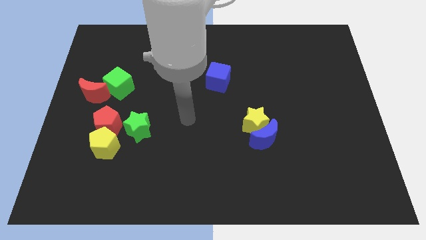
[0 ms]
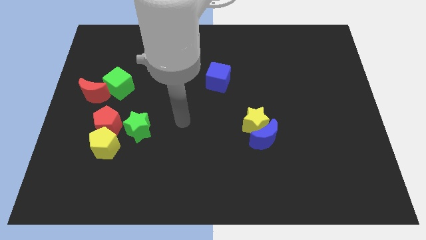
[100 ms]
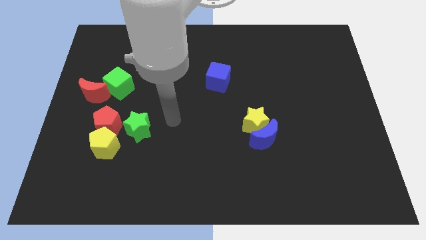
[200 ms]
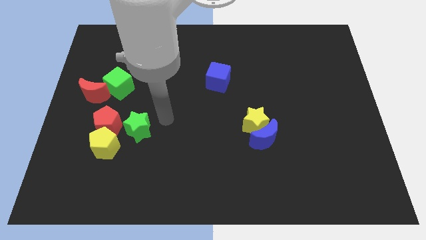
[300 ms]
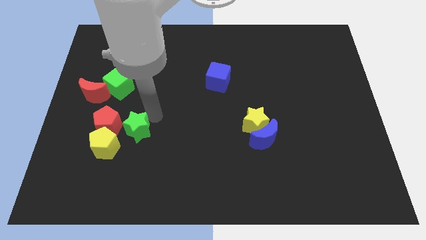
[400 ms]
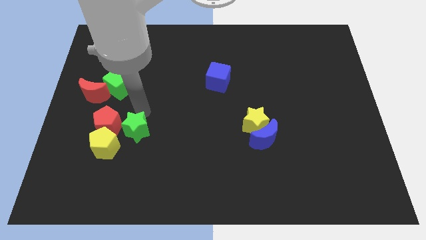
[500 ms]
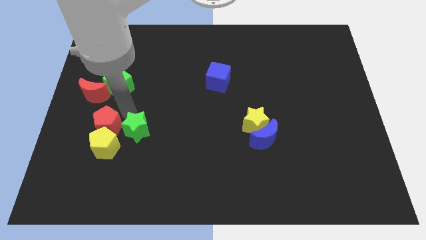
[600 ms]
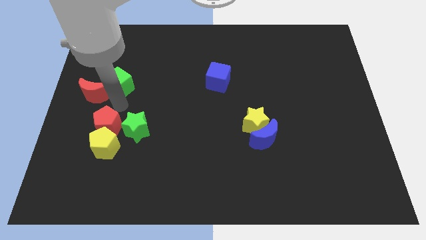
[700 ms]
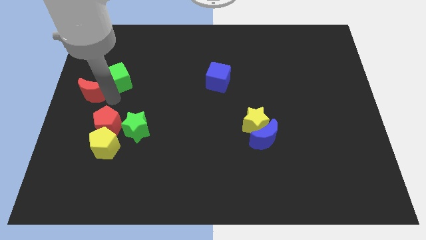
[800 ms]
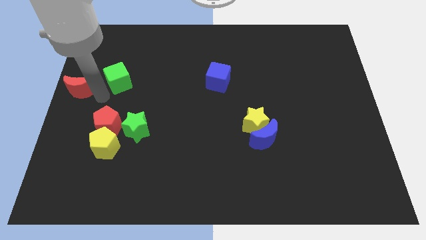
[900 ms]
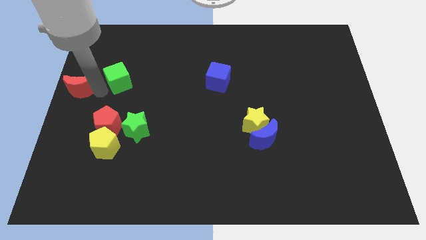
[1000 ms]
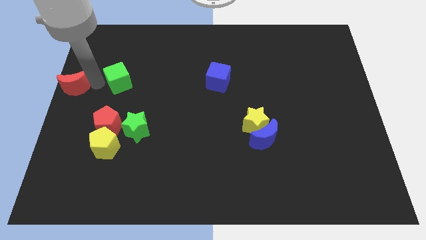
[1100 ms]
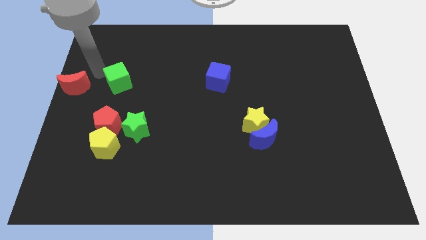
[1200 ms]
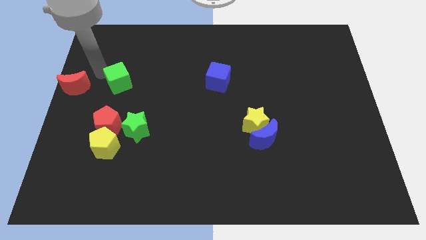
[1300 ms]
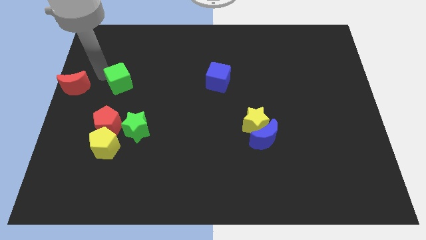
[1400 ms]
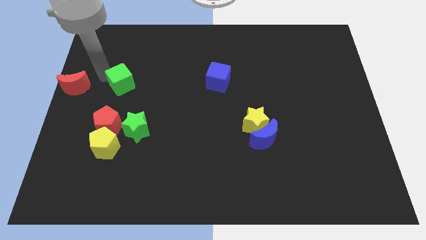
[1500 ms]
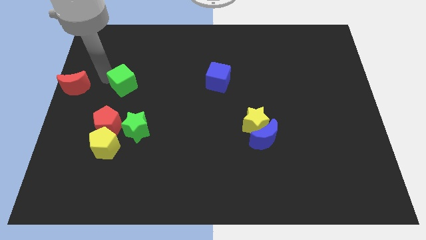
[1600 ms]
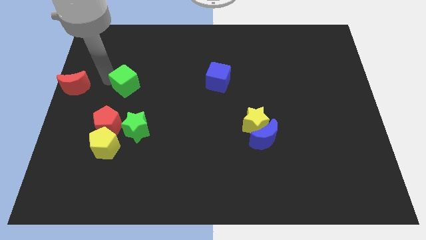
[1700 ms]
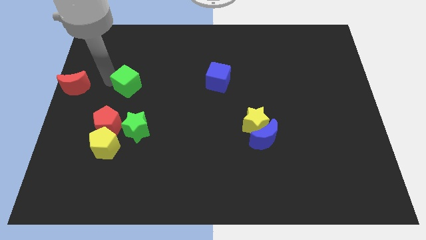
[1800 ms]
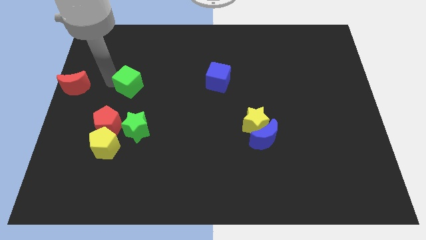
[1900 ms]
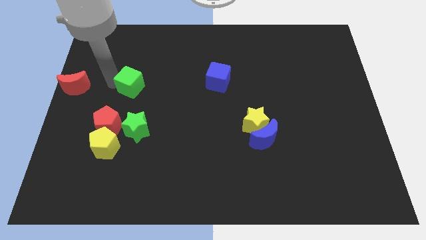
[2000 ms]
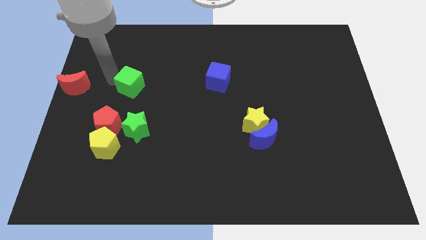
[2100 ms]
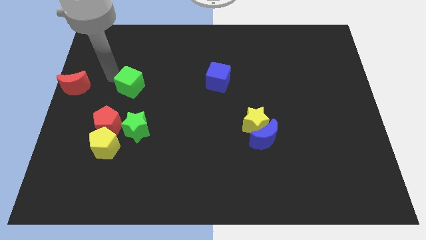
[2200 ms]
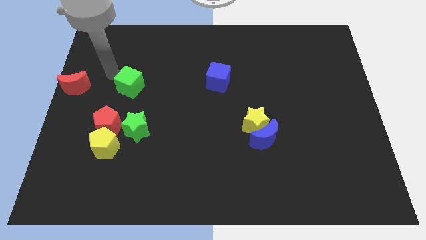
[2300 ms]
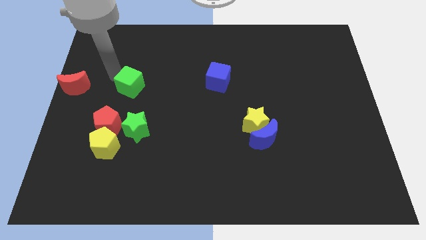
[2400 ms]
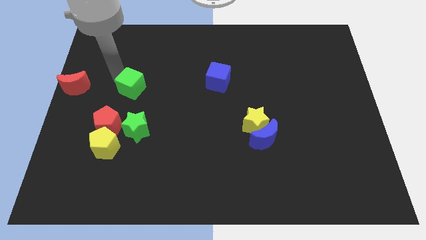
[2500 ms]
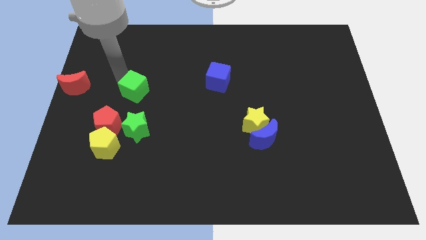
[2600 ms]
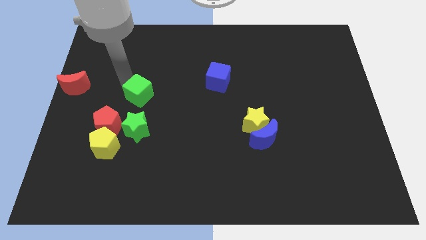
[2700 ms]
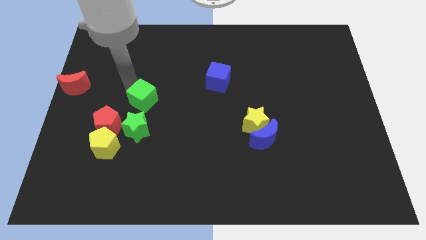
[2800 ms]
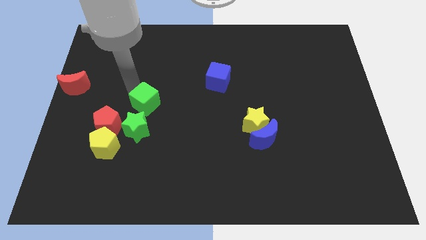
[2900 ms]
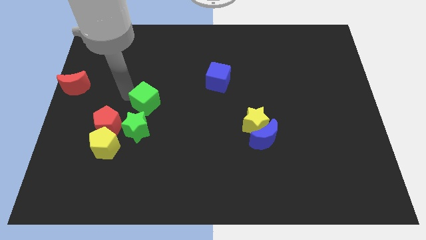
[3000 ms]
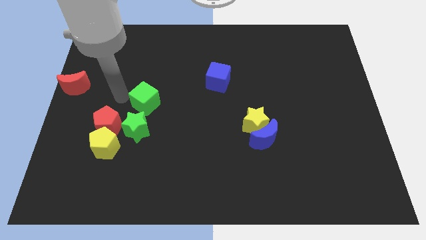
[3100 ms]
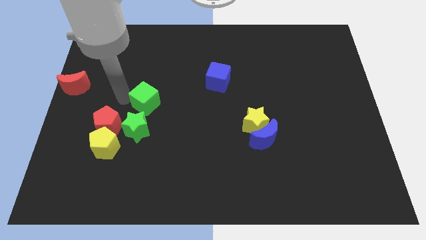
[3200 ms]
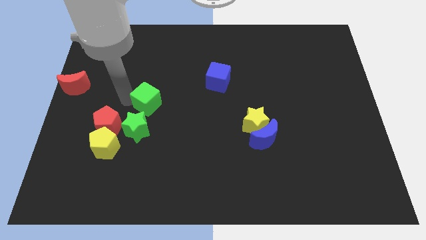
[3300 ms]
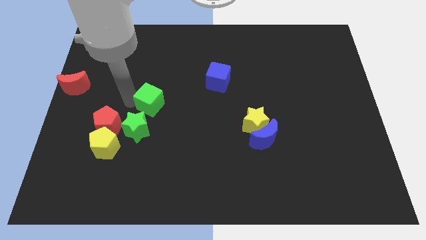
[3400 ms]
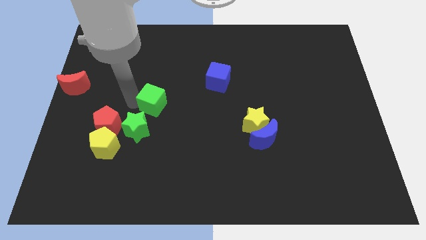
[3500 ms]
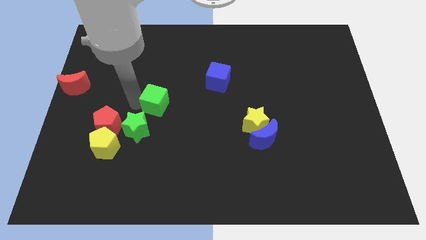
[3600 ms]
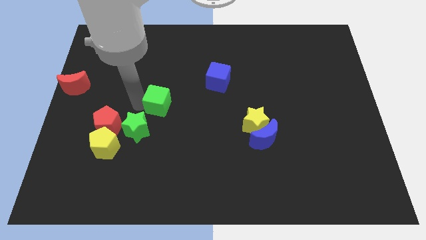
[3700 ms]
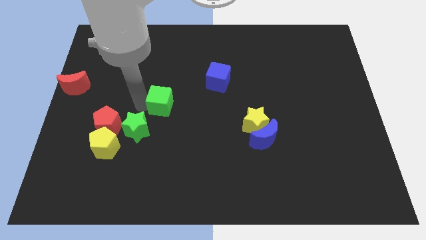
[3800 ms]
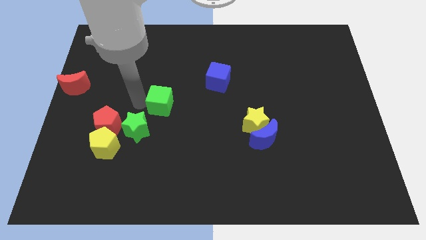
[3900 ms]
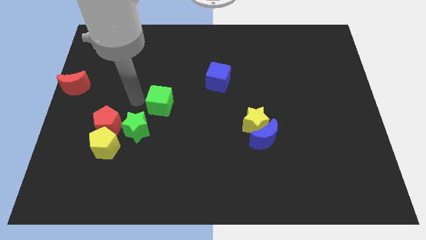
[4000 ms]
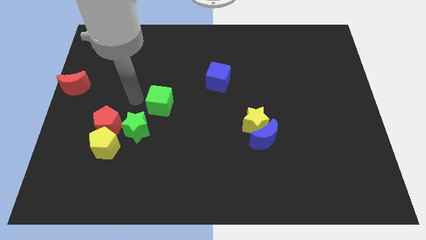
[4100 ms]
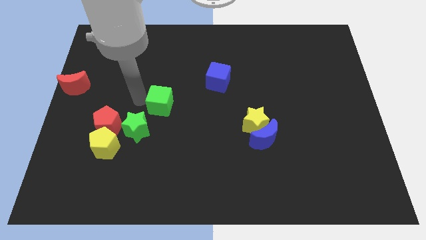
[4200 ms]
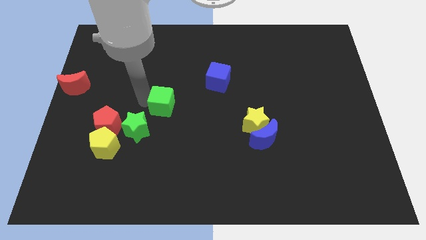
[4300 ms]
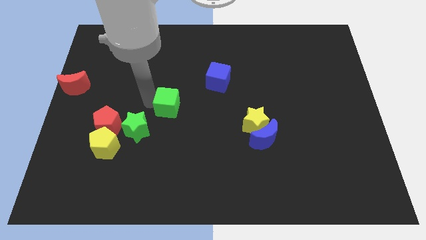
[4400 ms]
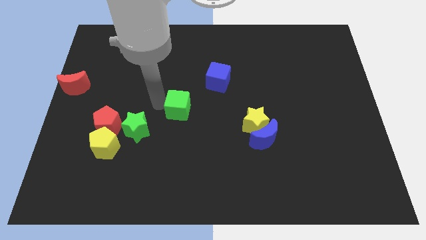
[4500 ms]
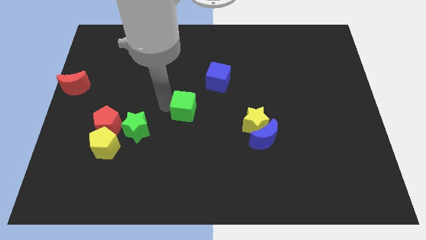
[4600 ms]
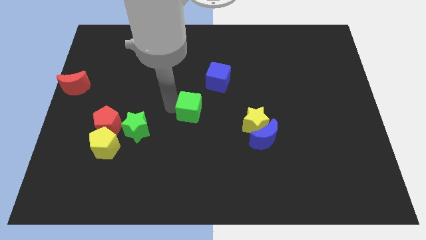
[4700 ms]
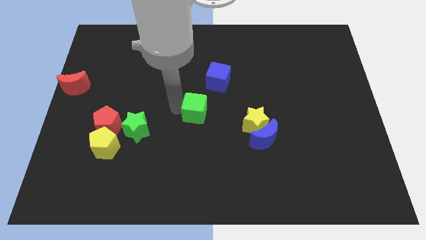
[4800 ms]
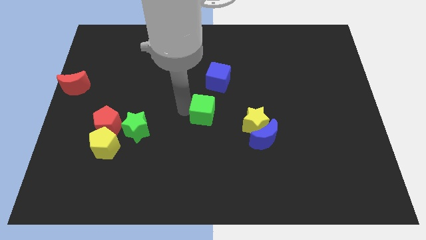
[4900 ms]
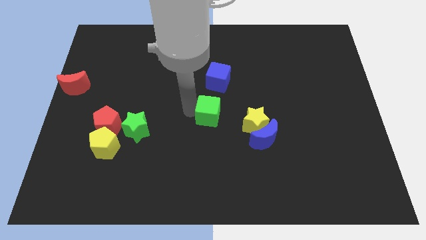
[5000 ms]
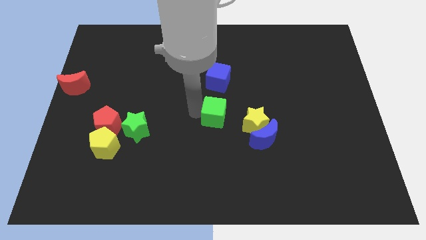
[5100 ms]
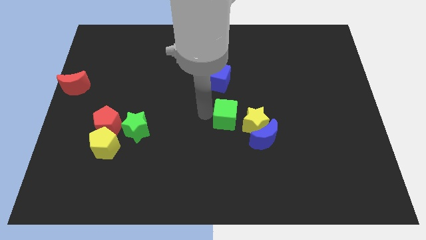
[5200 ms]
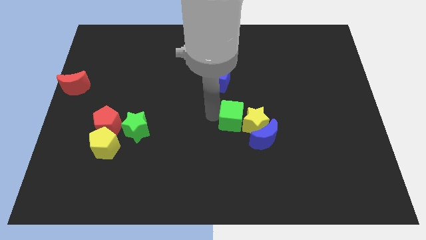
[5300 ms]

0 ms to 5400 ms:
push the green cube next to the yellow star

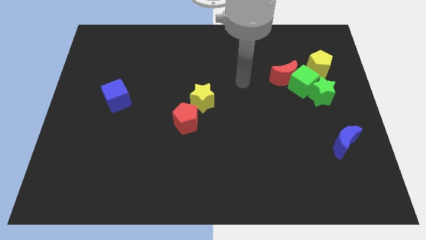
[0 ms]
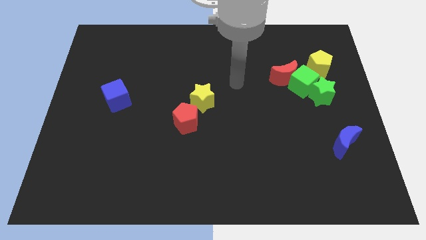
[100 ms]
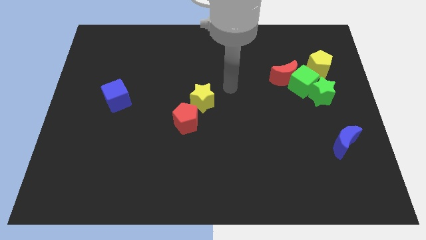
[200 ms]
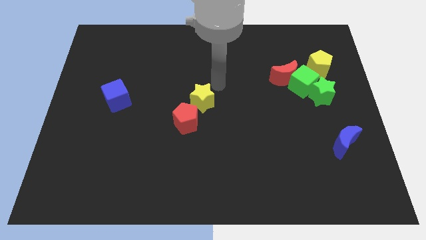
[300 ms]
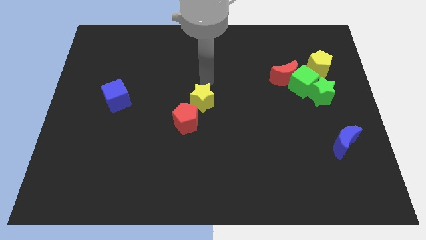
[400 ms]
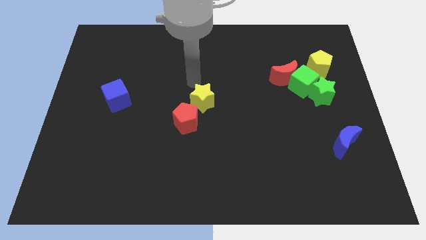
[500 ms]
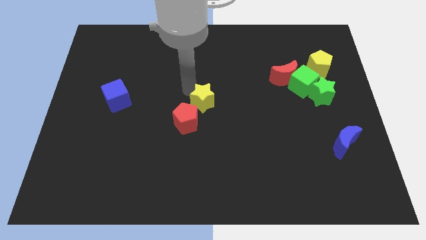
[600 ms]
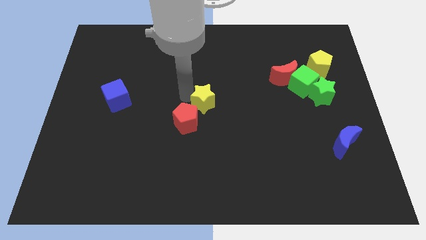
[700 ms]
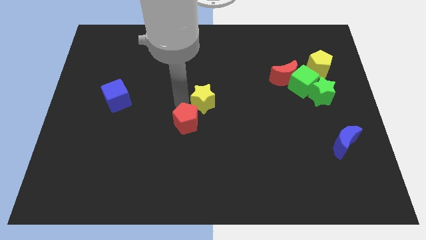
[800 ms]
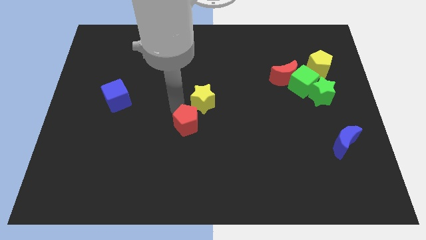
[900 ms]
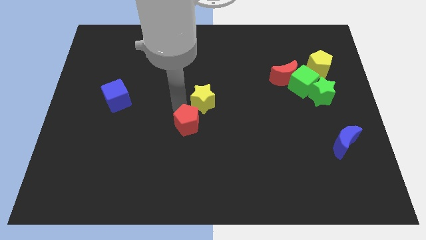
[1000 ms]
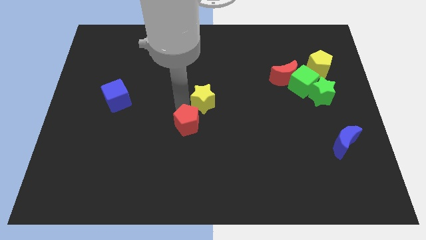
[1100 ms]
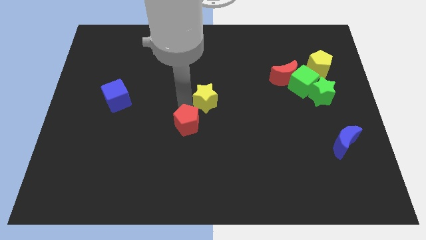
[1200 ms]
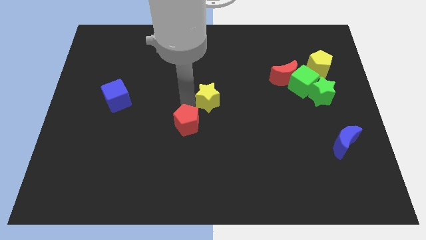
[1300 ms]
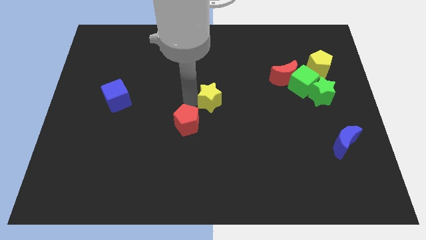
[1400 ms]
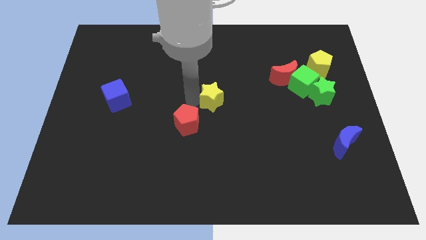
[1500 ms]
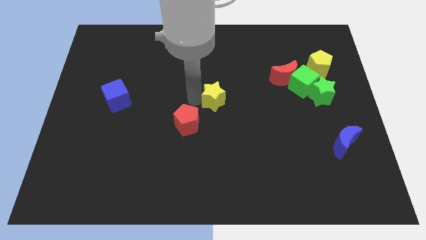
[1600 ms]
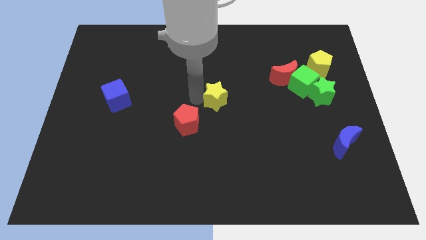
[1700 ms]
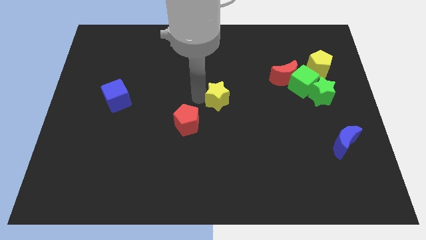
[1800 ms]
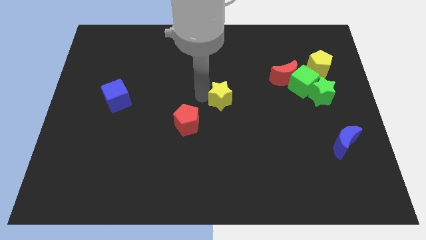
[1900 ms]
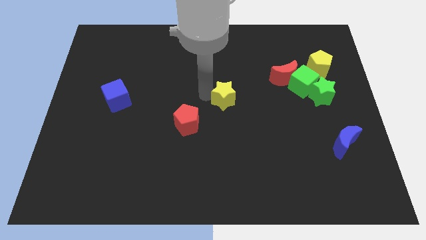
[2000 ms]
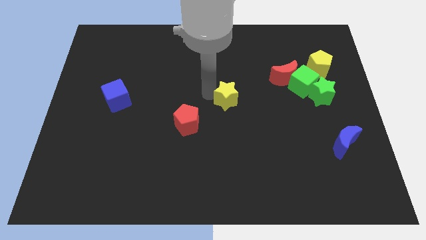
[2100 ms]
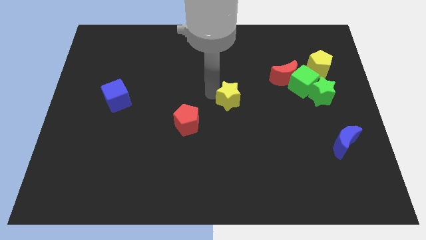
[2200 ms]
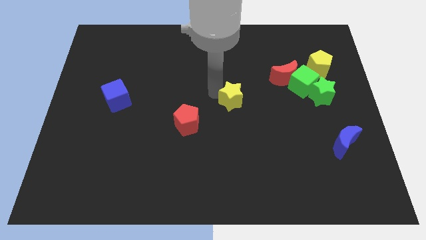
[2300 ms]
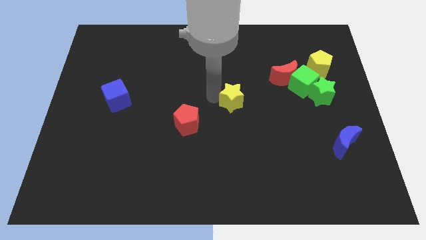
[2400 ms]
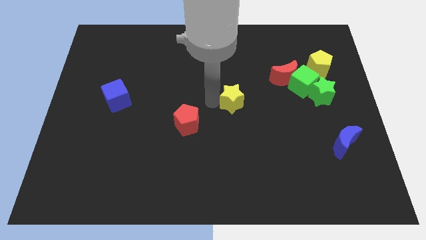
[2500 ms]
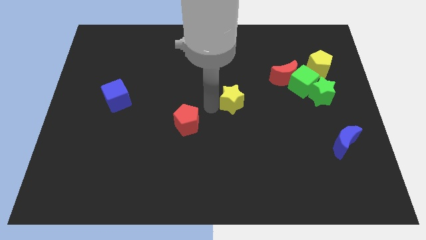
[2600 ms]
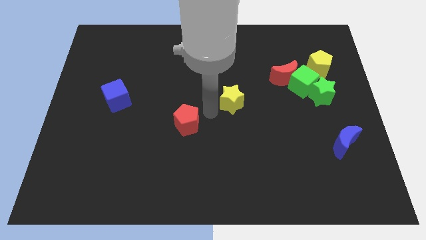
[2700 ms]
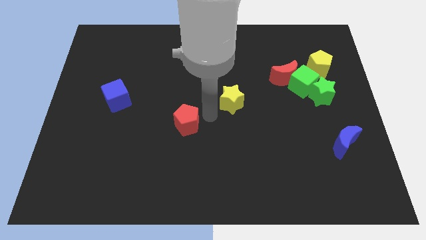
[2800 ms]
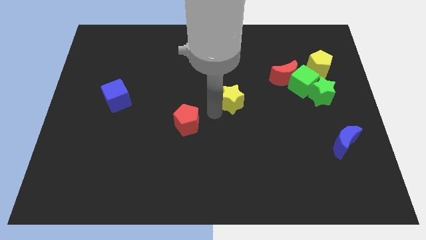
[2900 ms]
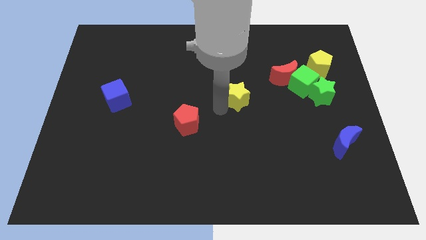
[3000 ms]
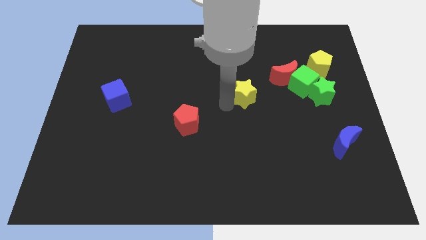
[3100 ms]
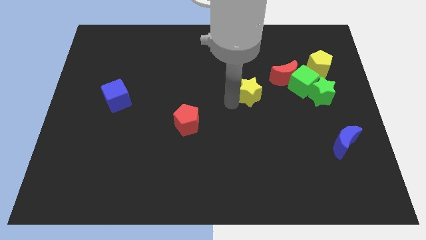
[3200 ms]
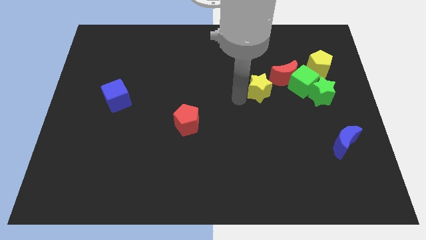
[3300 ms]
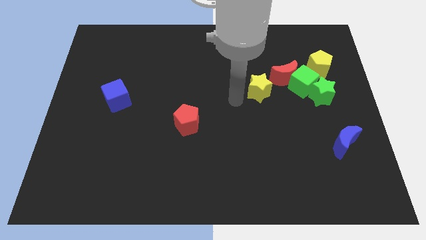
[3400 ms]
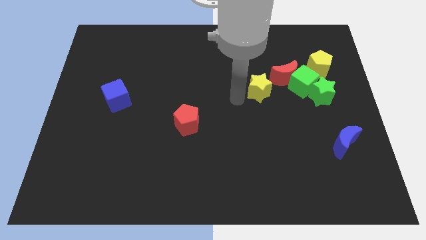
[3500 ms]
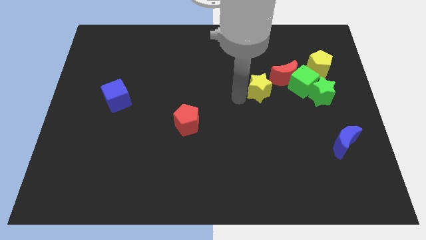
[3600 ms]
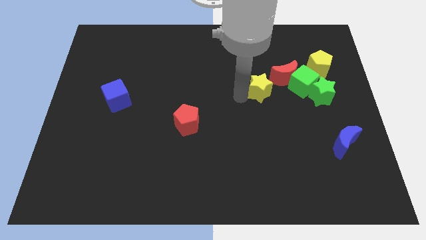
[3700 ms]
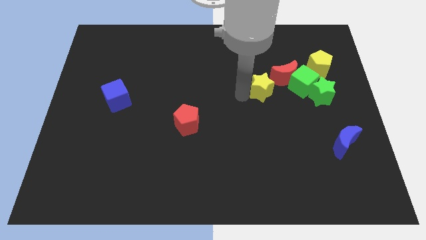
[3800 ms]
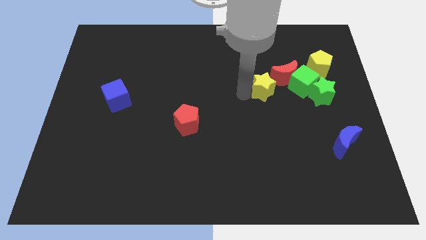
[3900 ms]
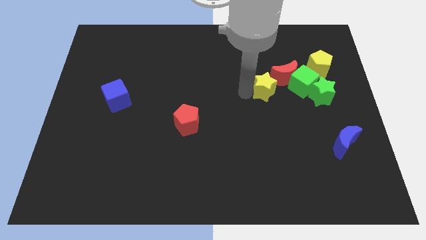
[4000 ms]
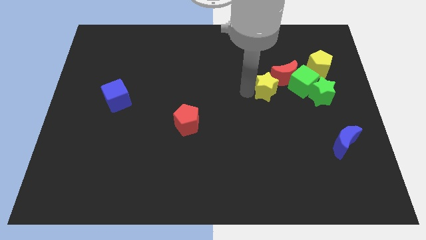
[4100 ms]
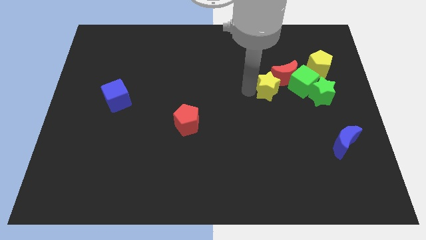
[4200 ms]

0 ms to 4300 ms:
push the yellow star to the red moon
